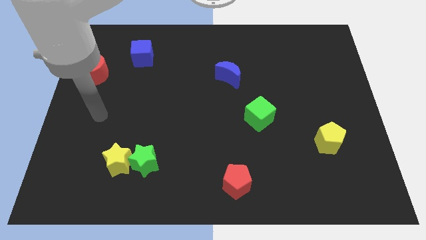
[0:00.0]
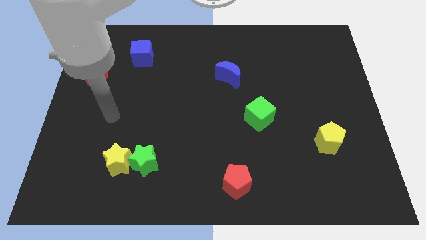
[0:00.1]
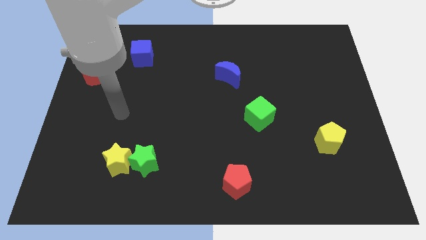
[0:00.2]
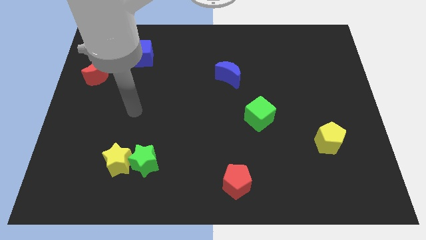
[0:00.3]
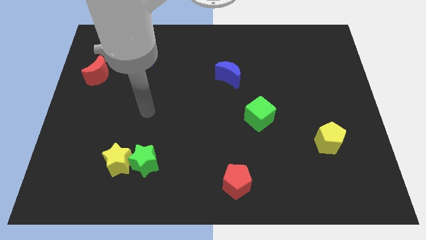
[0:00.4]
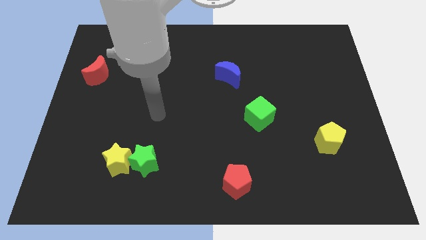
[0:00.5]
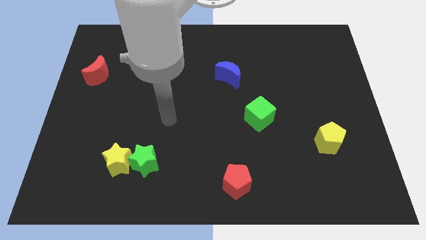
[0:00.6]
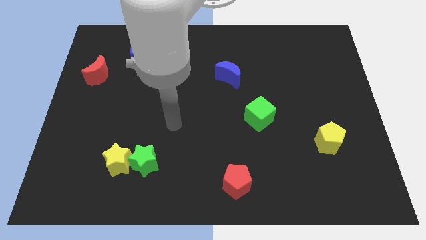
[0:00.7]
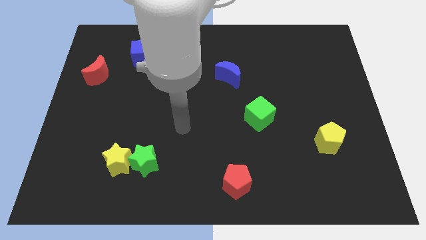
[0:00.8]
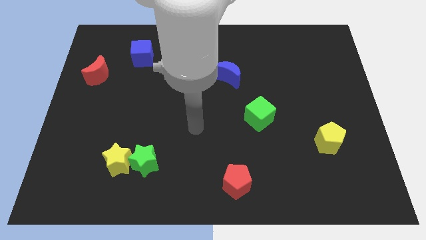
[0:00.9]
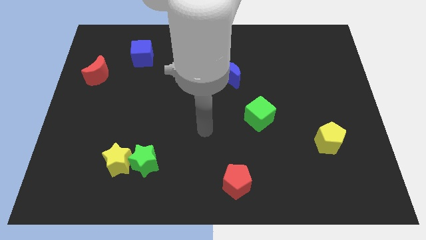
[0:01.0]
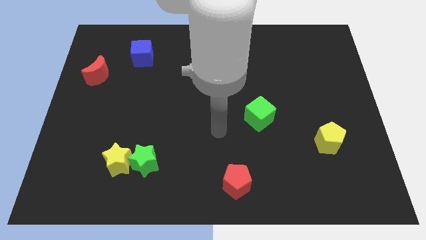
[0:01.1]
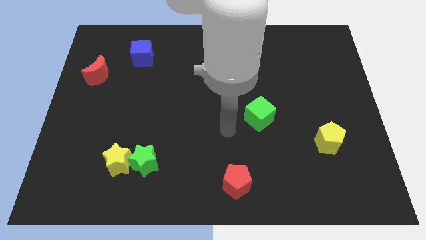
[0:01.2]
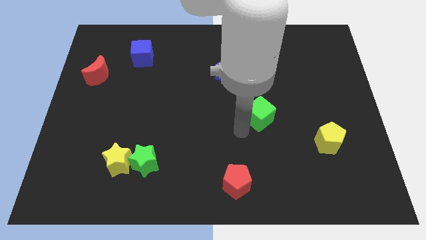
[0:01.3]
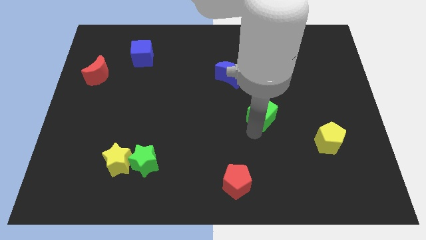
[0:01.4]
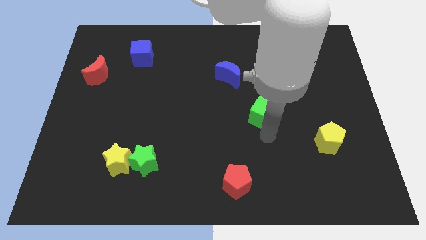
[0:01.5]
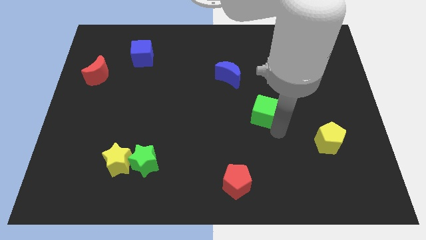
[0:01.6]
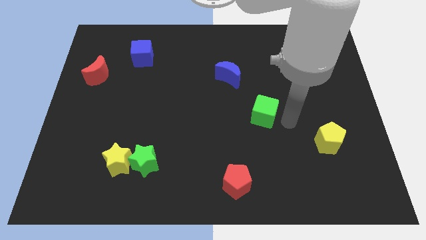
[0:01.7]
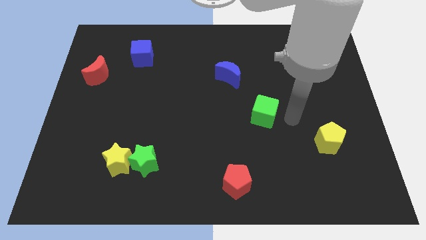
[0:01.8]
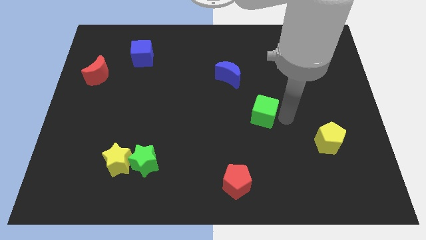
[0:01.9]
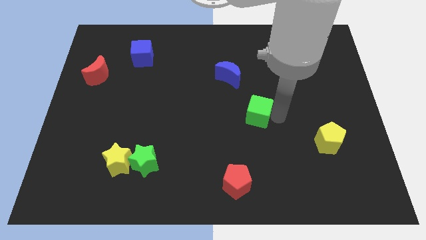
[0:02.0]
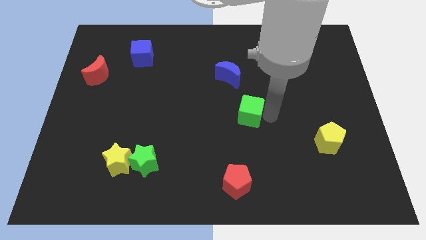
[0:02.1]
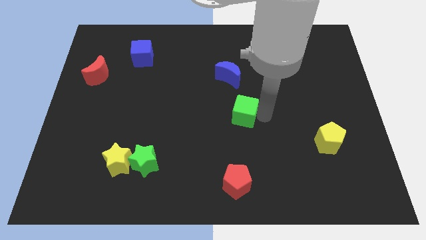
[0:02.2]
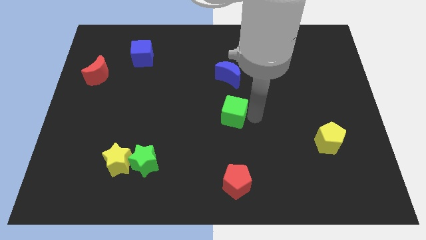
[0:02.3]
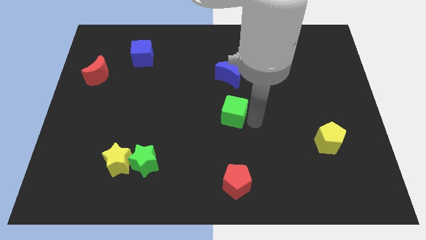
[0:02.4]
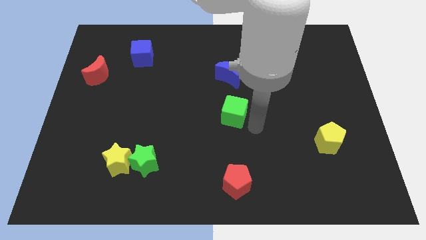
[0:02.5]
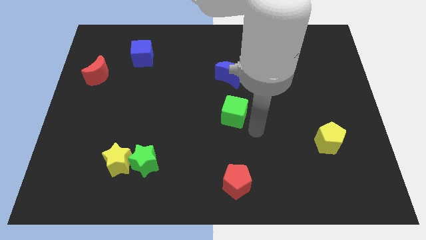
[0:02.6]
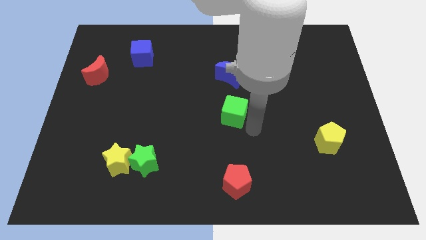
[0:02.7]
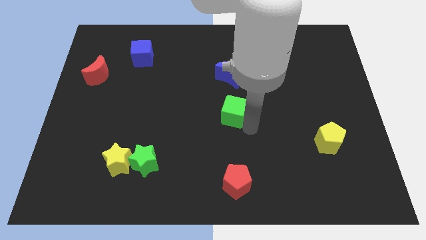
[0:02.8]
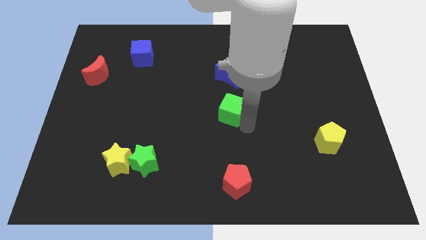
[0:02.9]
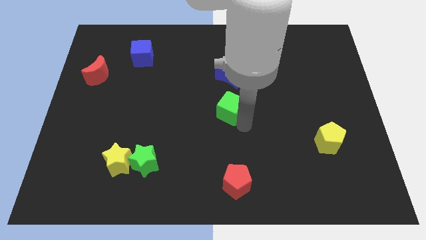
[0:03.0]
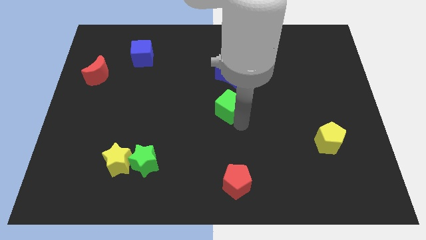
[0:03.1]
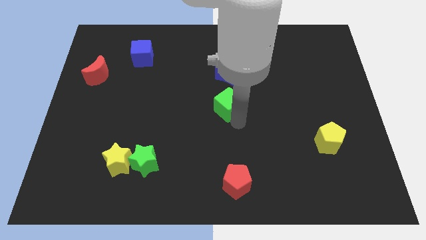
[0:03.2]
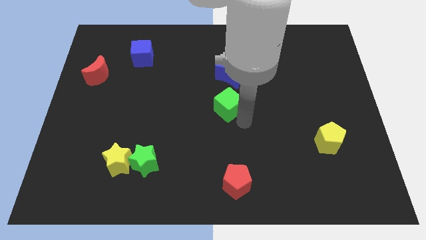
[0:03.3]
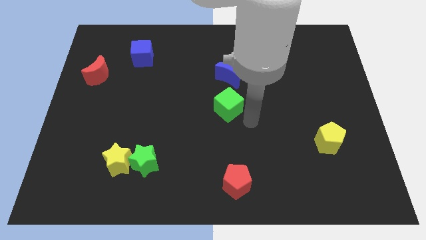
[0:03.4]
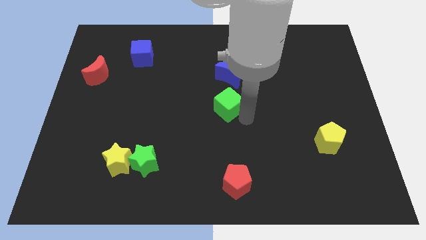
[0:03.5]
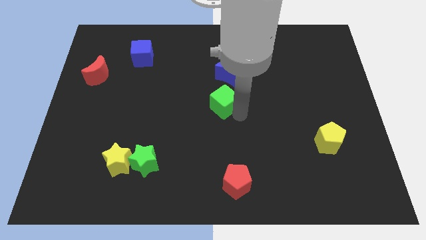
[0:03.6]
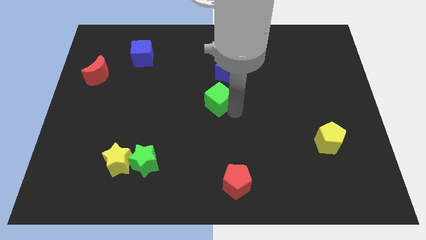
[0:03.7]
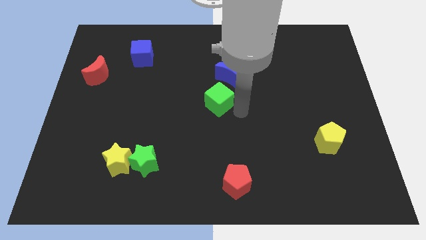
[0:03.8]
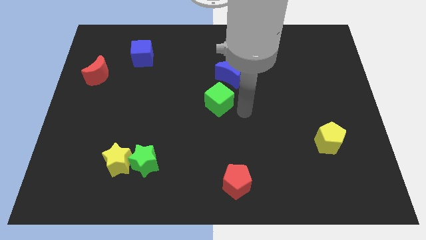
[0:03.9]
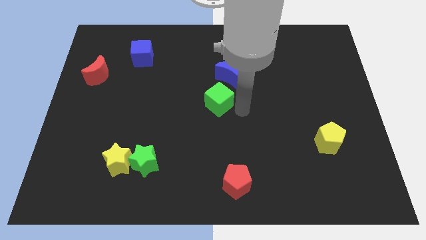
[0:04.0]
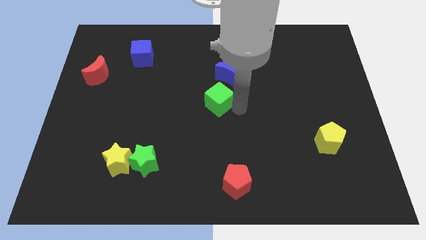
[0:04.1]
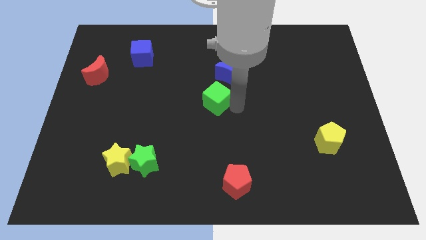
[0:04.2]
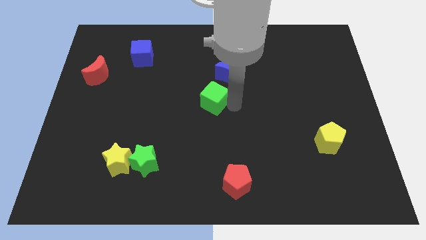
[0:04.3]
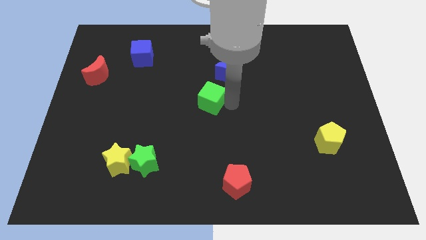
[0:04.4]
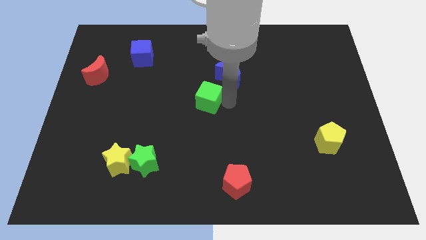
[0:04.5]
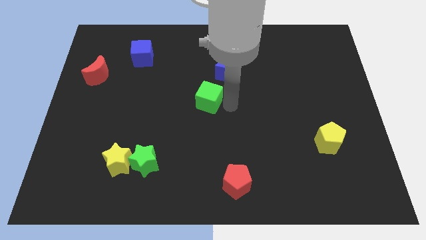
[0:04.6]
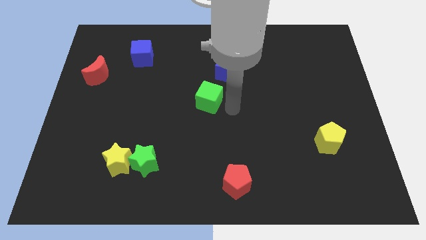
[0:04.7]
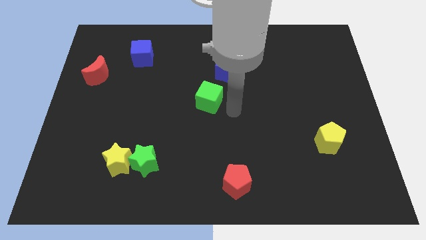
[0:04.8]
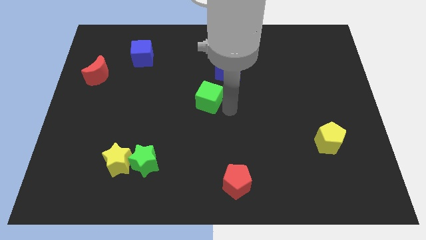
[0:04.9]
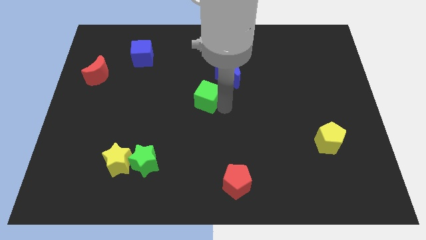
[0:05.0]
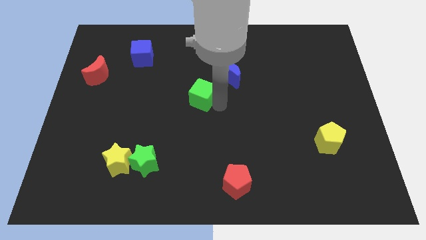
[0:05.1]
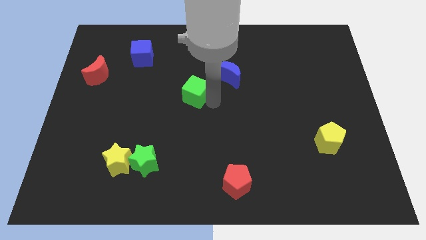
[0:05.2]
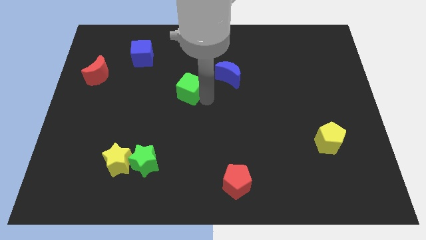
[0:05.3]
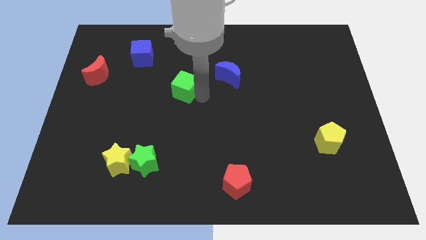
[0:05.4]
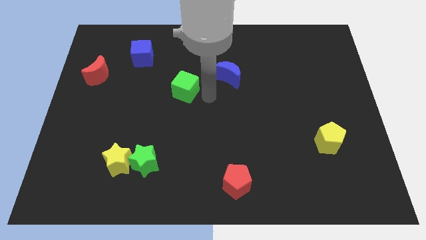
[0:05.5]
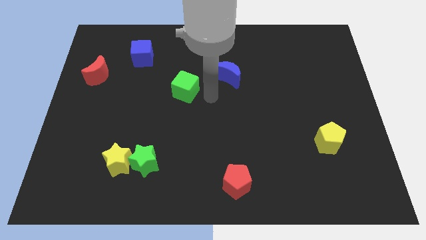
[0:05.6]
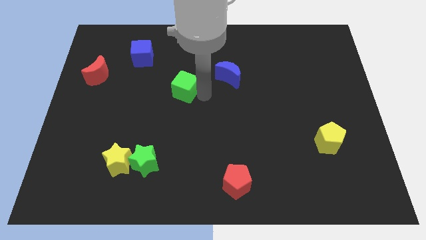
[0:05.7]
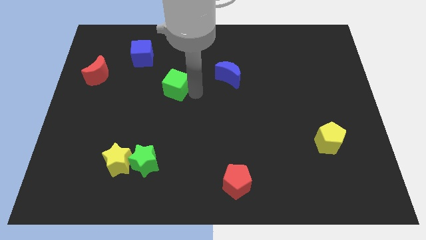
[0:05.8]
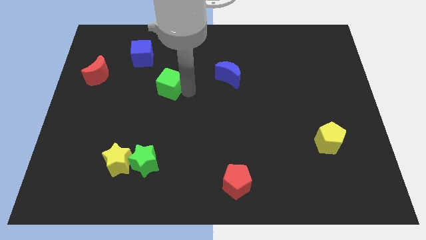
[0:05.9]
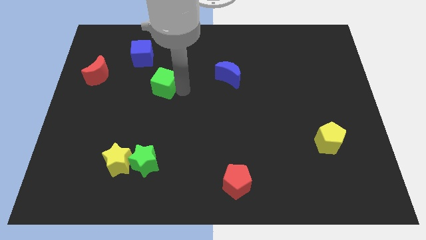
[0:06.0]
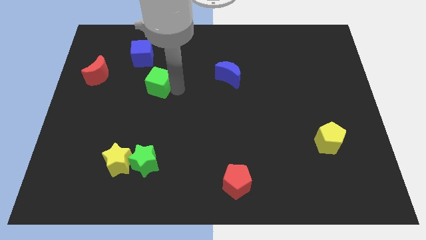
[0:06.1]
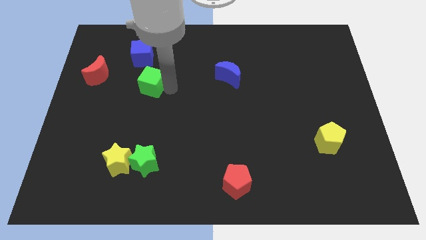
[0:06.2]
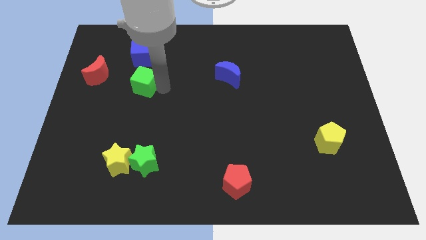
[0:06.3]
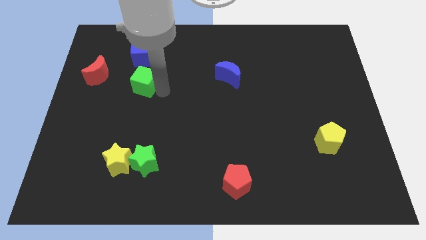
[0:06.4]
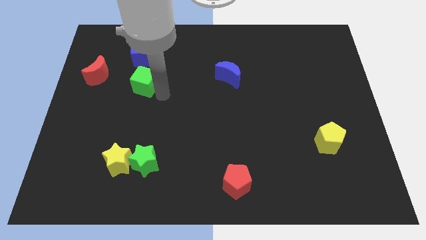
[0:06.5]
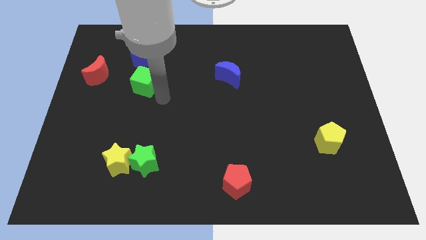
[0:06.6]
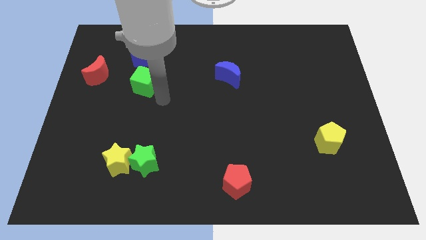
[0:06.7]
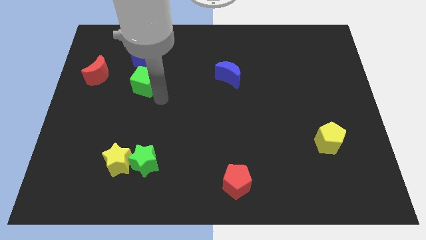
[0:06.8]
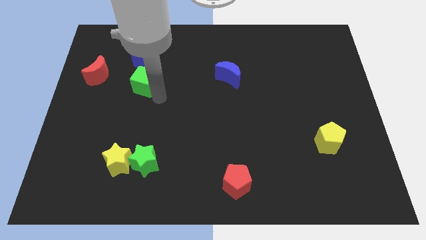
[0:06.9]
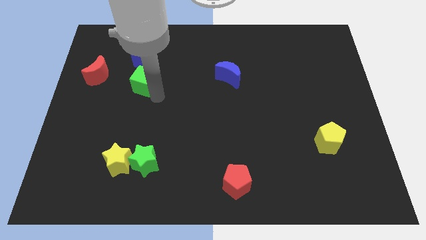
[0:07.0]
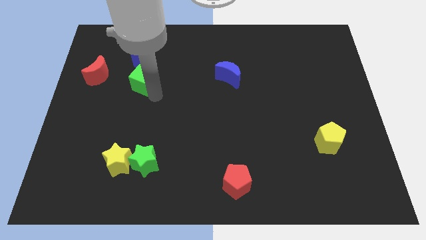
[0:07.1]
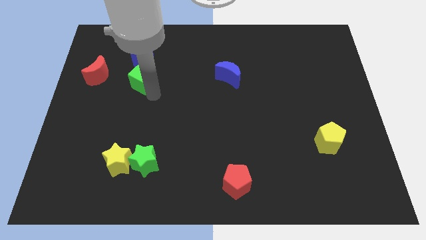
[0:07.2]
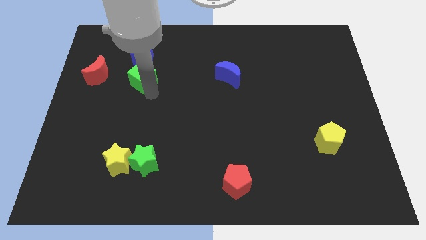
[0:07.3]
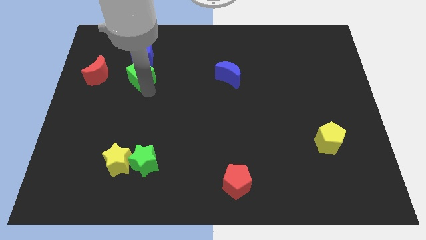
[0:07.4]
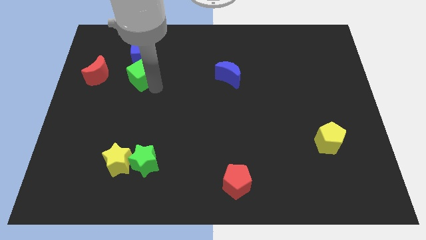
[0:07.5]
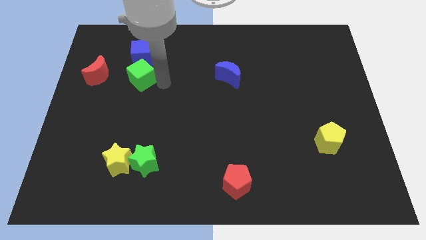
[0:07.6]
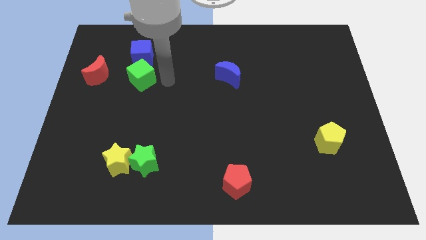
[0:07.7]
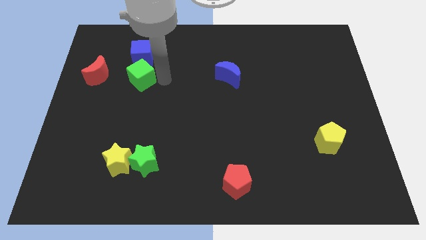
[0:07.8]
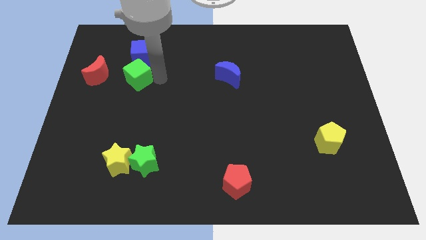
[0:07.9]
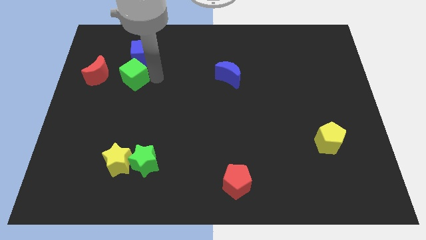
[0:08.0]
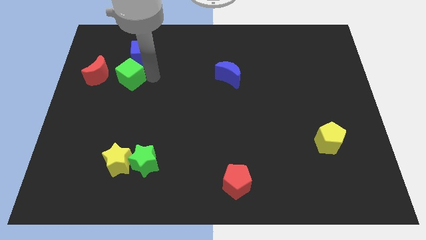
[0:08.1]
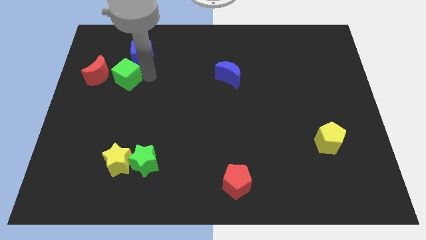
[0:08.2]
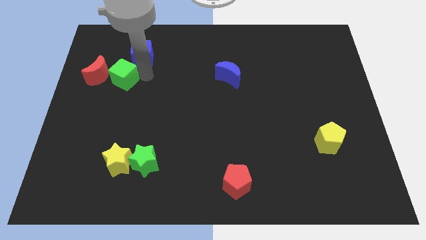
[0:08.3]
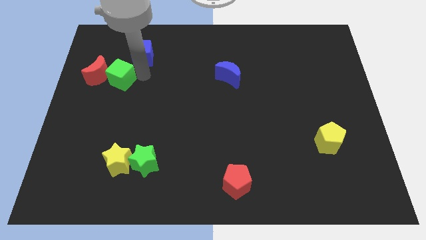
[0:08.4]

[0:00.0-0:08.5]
slide the green cube close to the red moon
